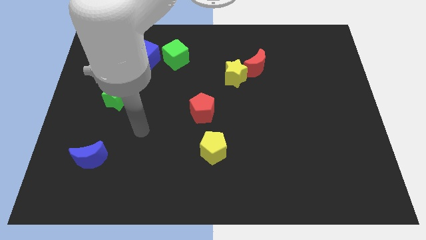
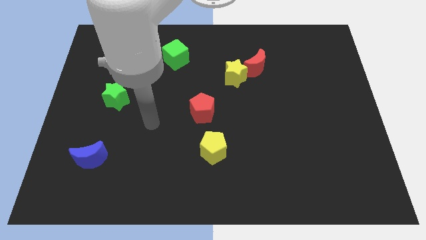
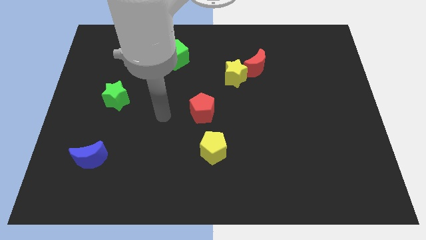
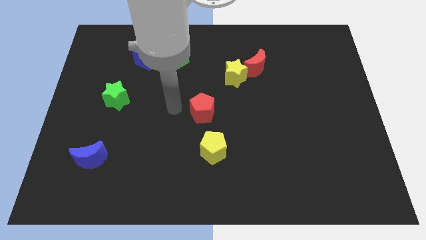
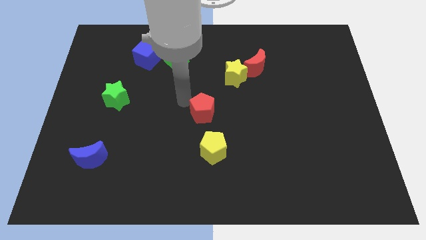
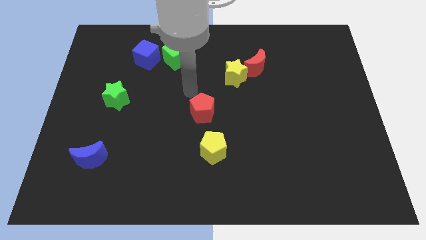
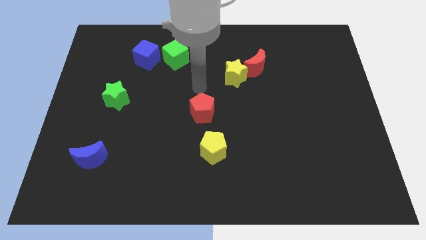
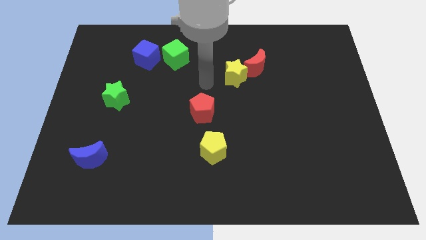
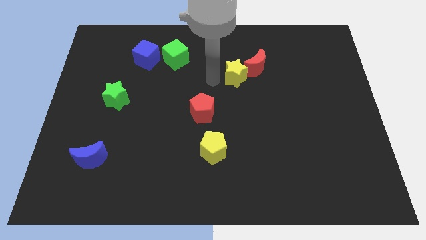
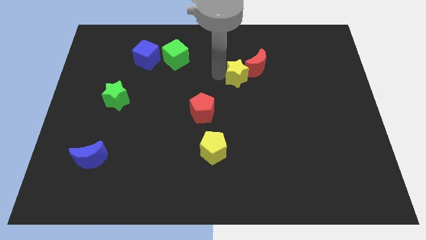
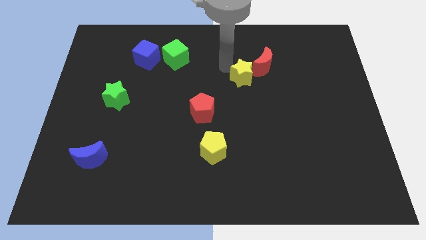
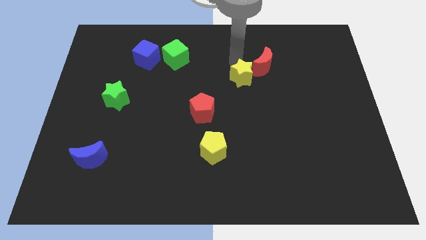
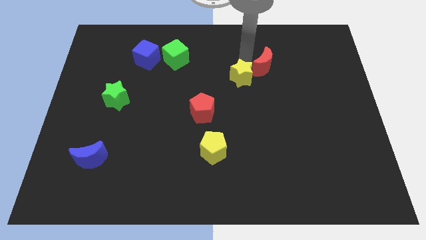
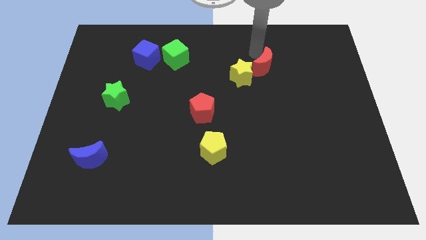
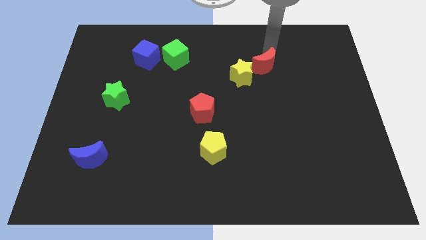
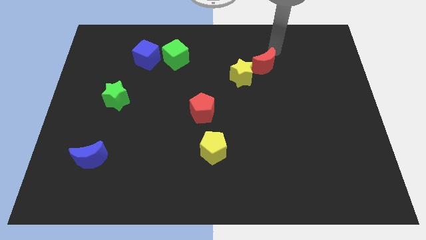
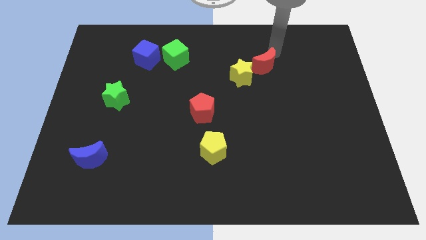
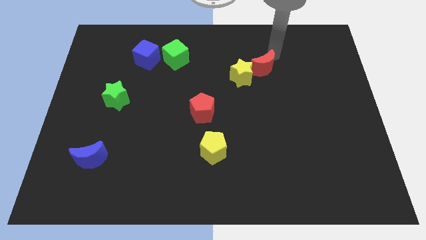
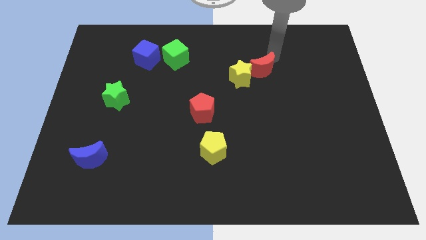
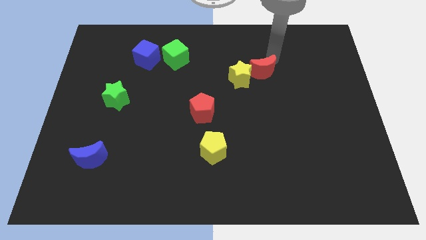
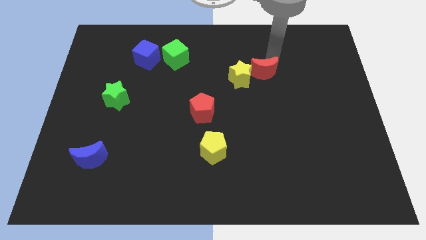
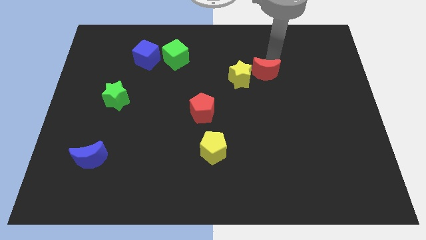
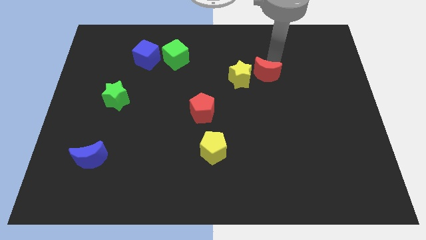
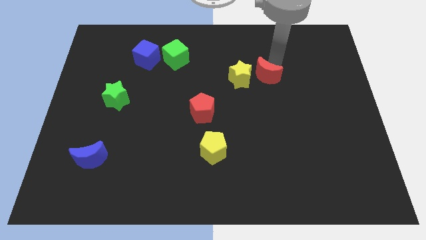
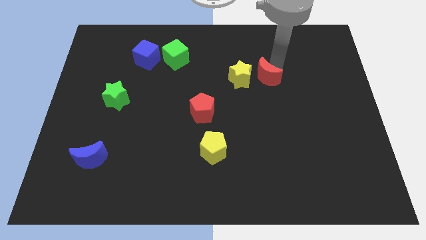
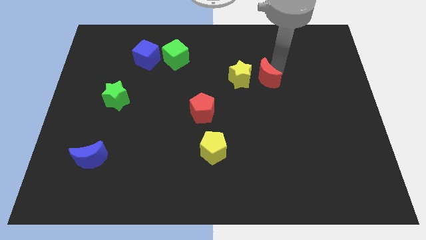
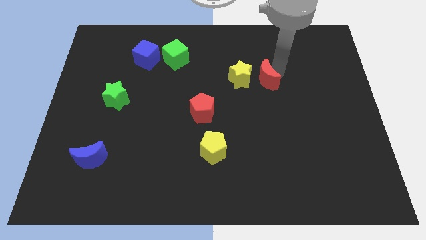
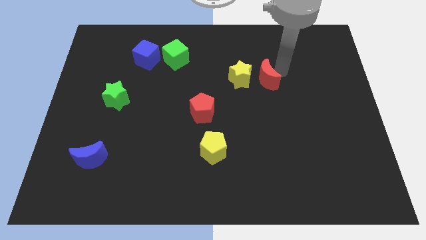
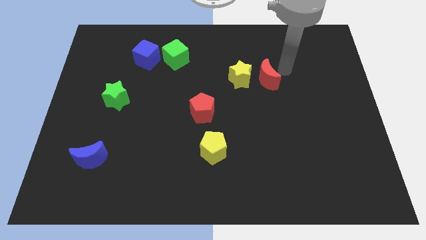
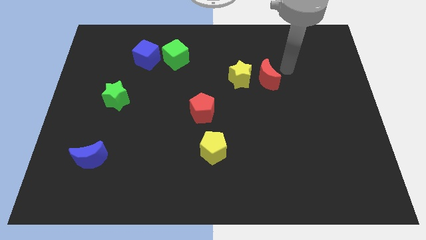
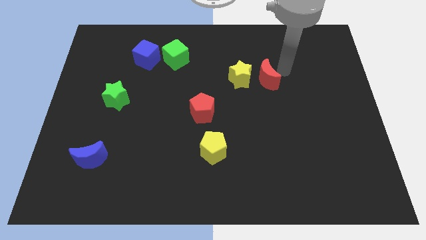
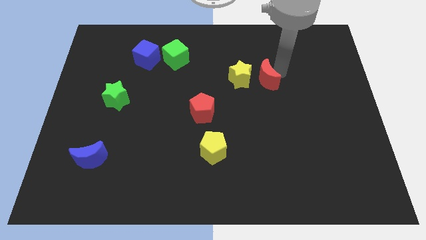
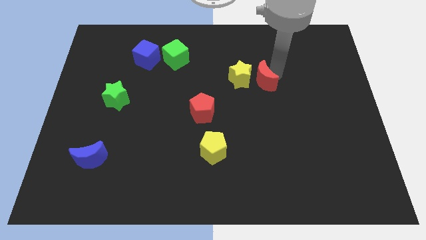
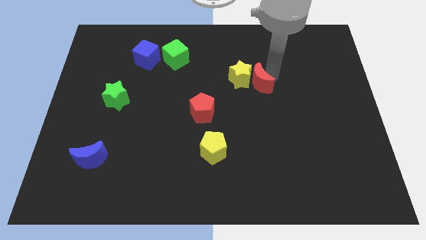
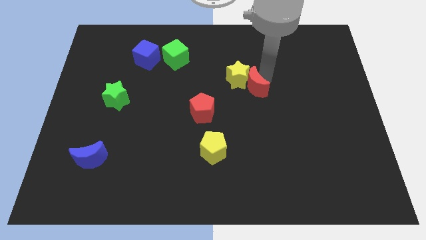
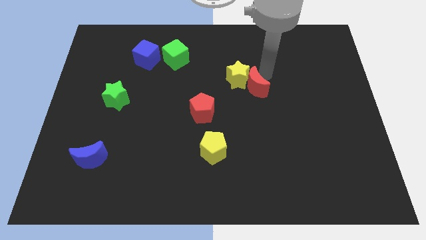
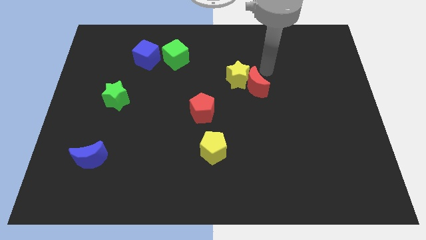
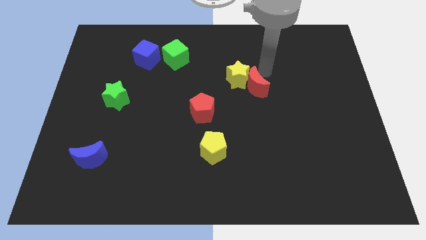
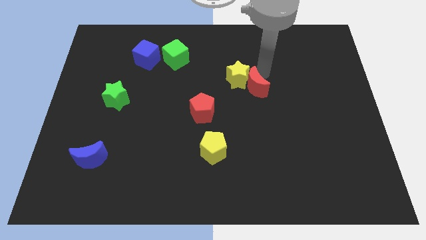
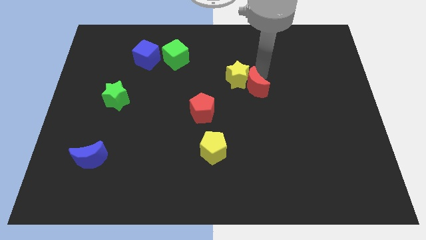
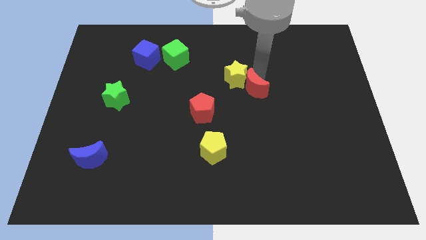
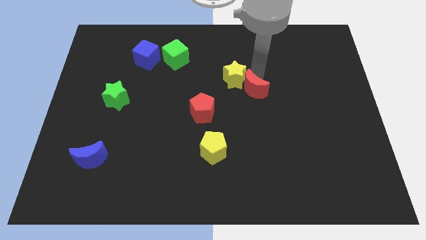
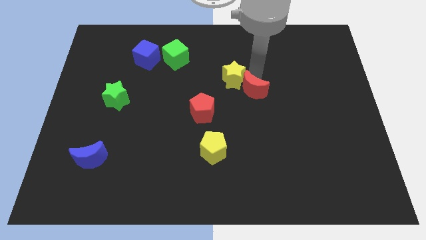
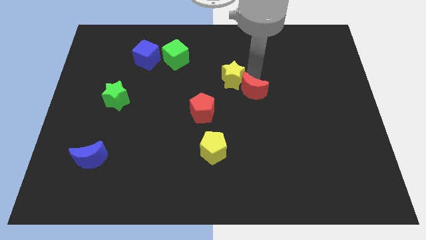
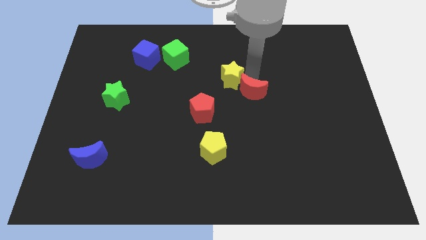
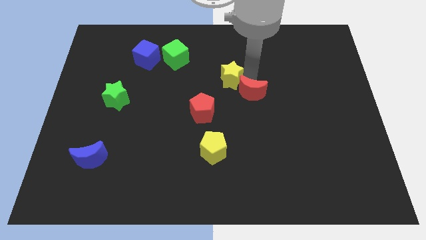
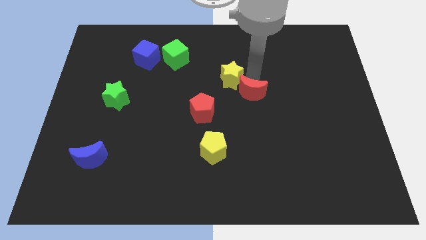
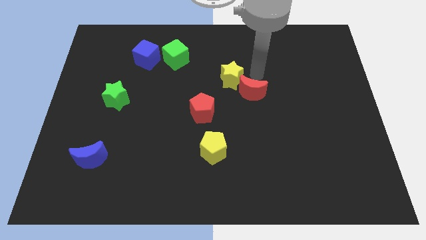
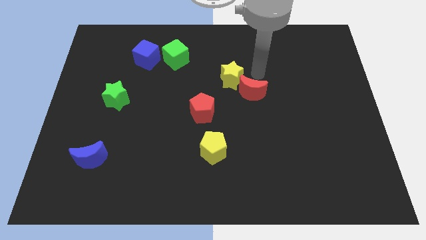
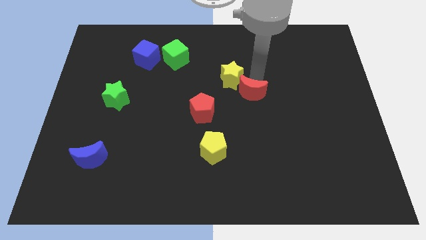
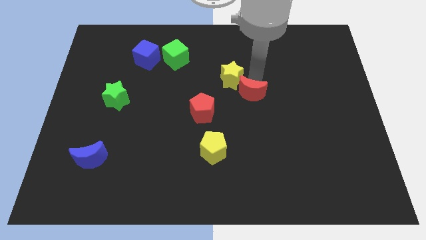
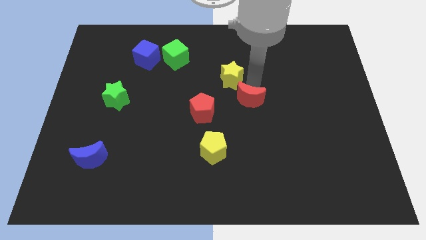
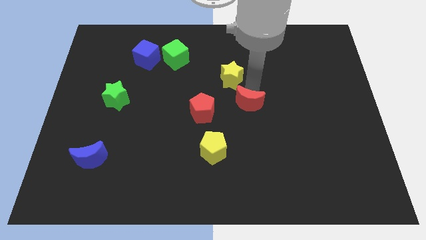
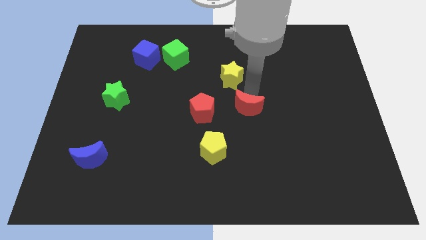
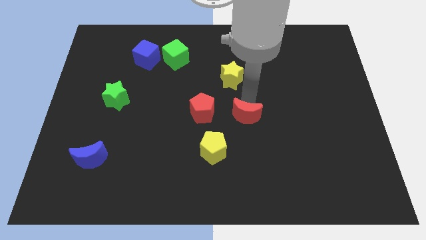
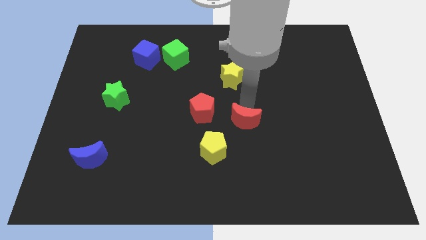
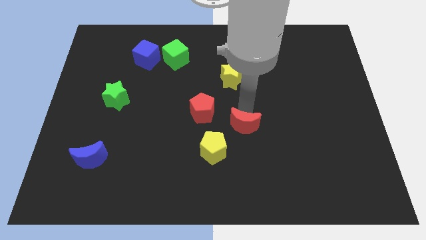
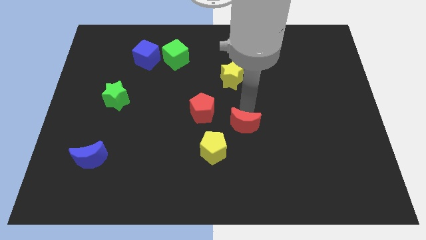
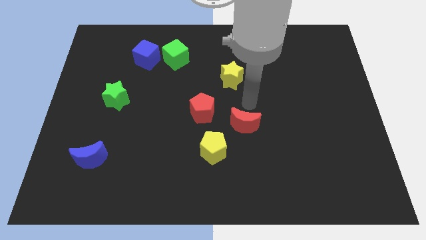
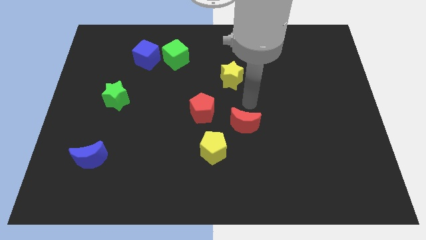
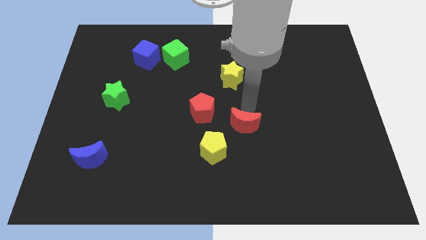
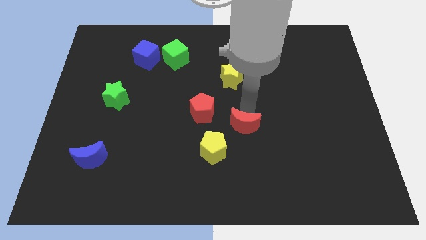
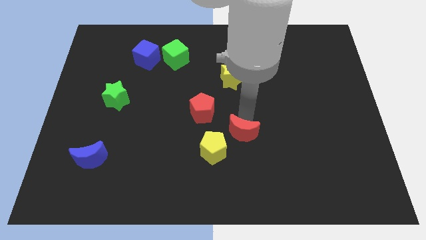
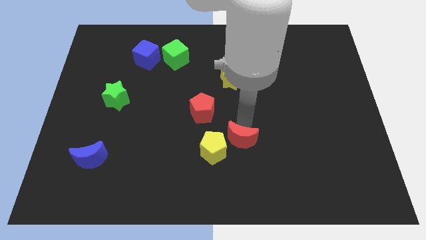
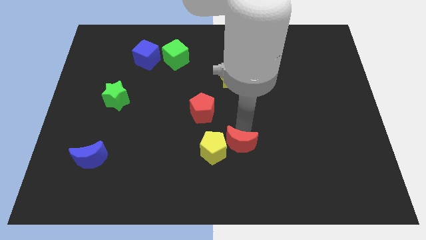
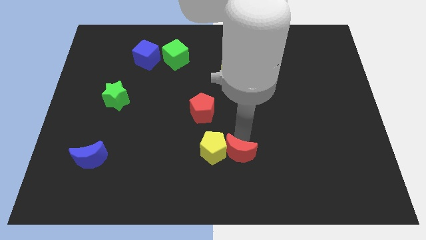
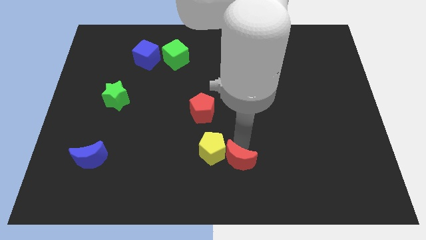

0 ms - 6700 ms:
put the red moon to the bottom
